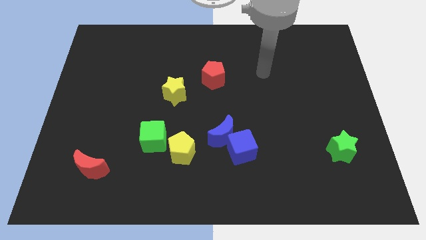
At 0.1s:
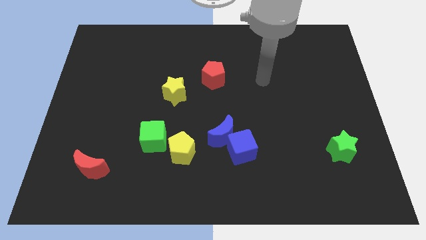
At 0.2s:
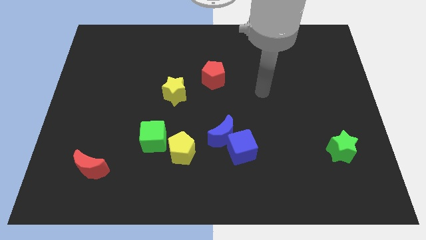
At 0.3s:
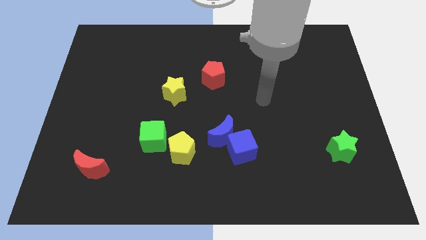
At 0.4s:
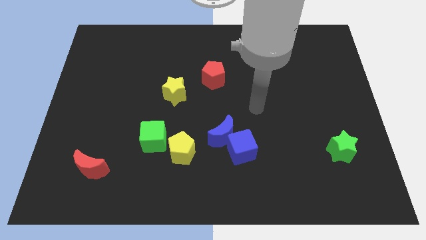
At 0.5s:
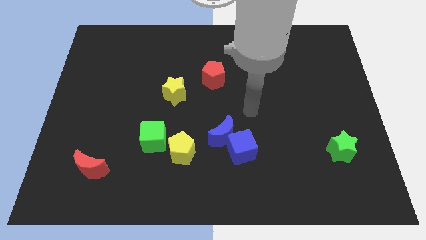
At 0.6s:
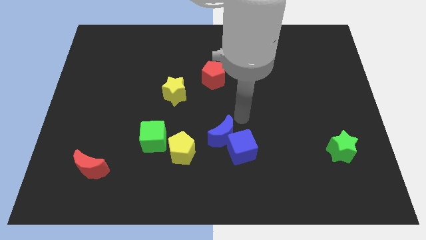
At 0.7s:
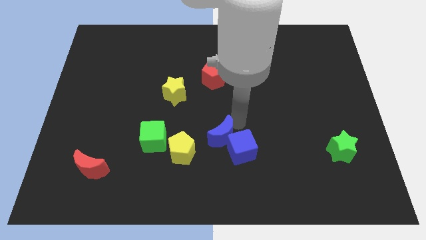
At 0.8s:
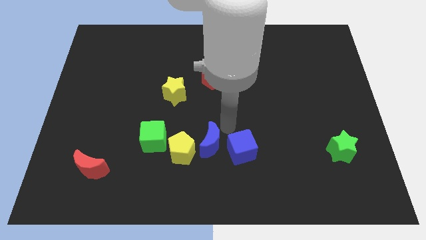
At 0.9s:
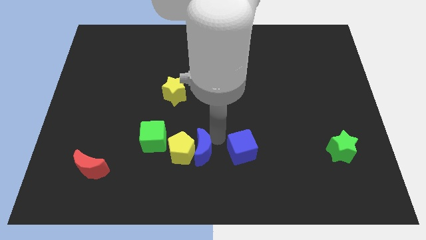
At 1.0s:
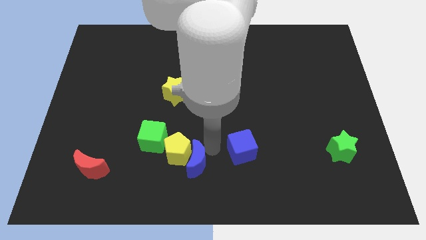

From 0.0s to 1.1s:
pull the blue cube apart from the blue moon

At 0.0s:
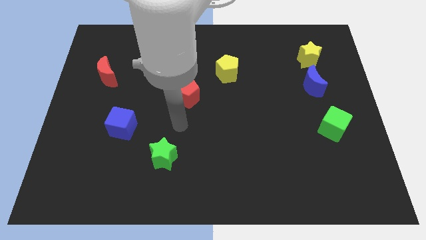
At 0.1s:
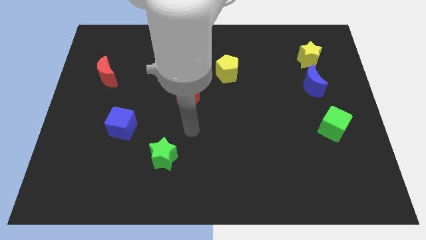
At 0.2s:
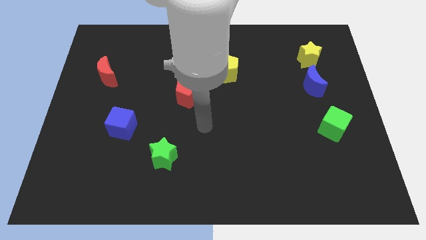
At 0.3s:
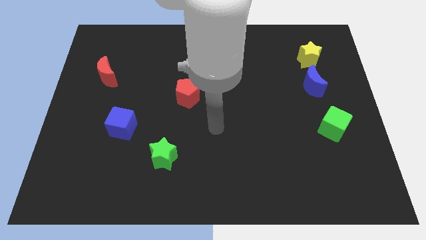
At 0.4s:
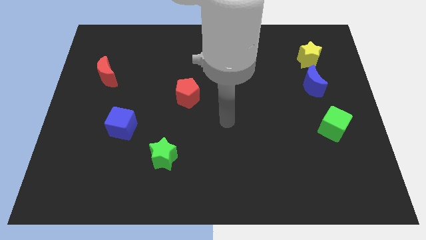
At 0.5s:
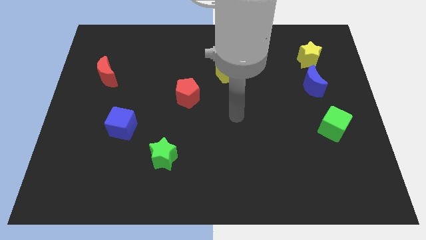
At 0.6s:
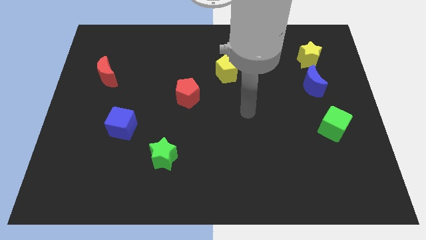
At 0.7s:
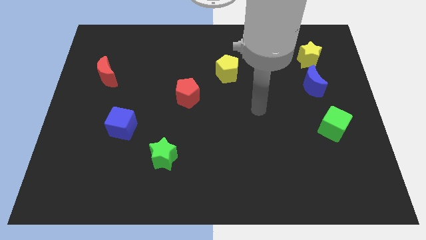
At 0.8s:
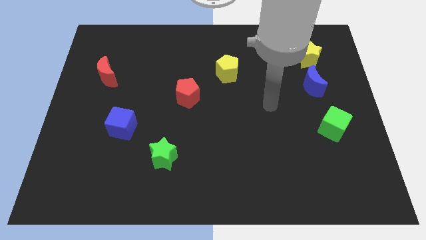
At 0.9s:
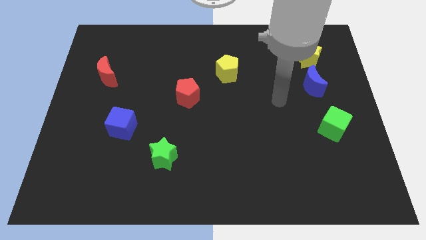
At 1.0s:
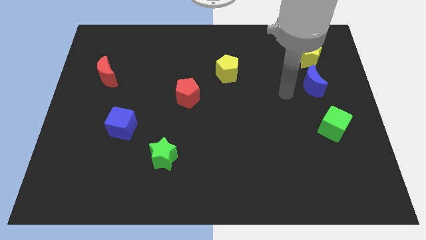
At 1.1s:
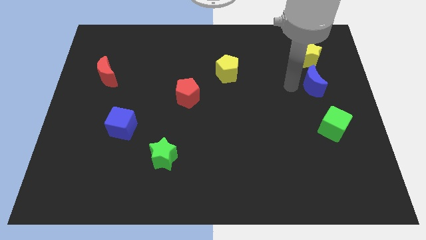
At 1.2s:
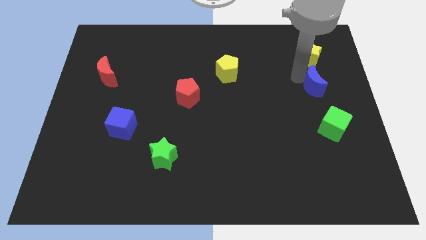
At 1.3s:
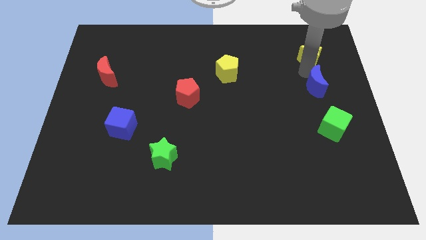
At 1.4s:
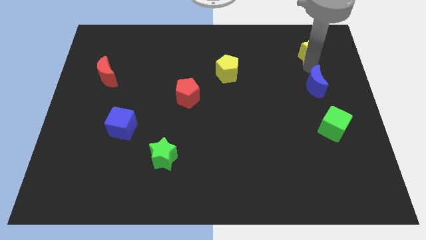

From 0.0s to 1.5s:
separate the blue moon from the yellow star

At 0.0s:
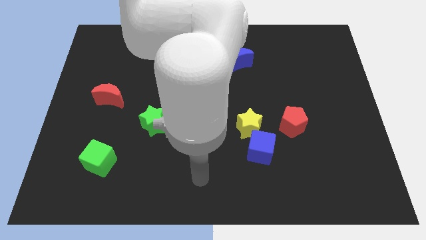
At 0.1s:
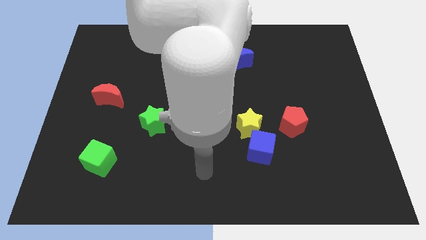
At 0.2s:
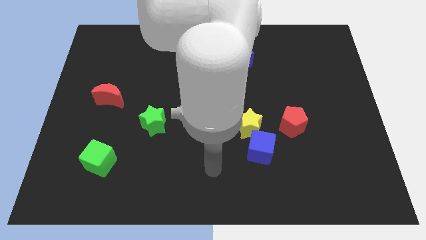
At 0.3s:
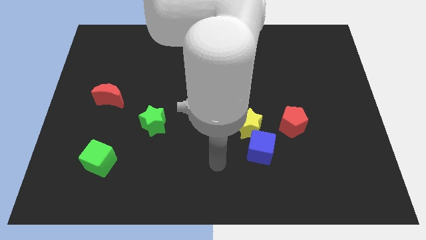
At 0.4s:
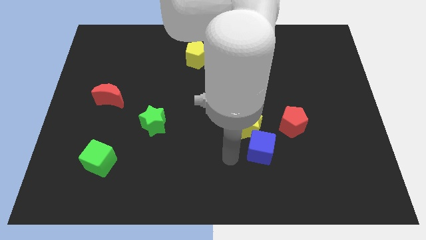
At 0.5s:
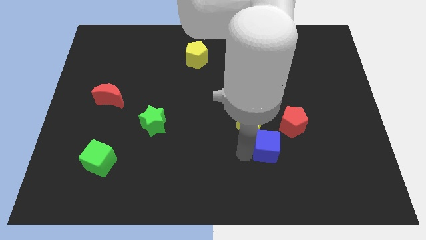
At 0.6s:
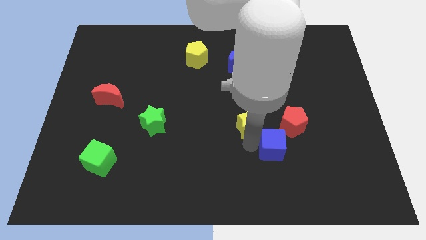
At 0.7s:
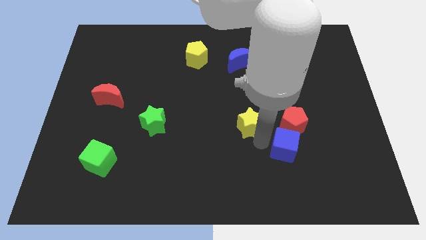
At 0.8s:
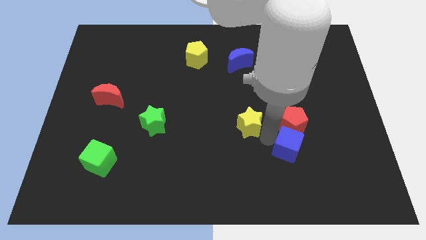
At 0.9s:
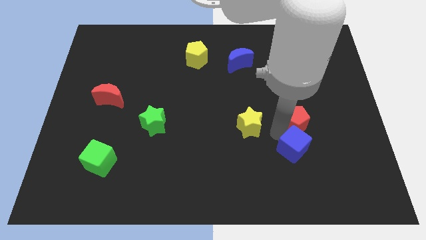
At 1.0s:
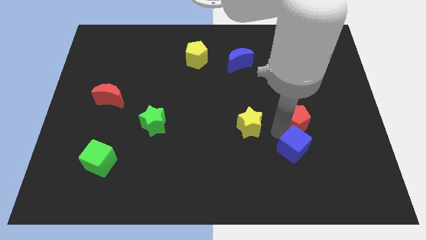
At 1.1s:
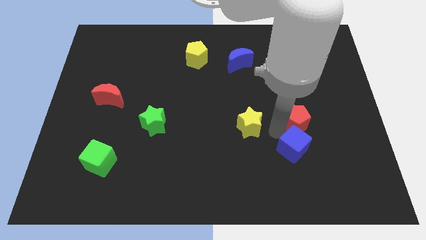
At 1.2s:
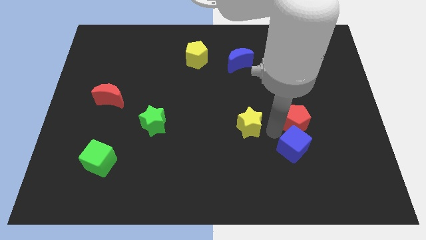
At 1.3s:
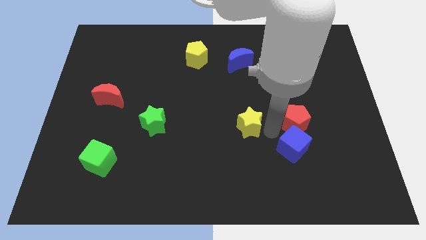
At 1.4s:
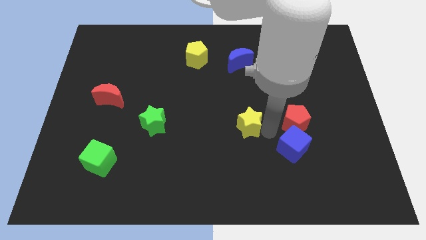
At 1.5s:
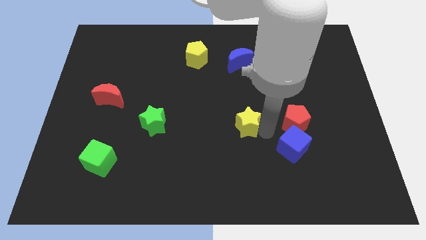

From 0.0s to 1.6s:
pull the yellow star apart from the blue cube and red pentagon

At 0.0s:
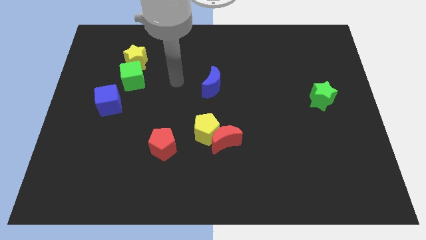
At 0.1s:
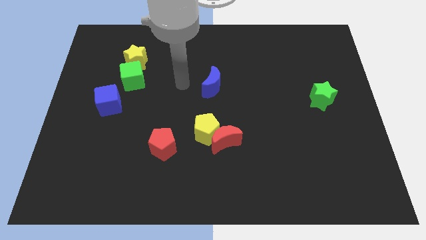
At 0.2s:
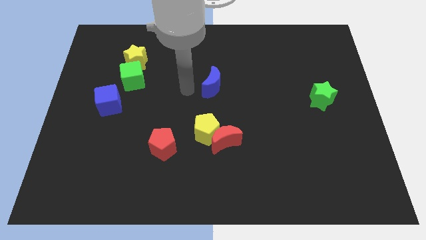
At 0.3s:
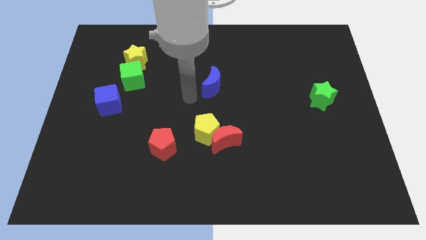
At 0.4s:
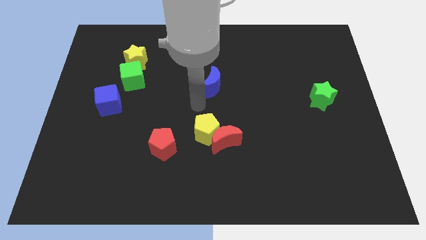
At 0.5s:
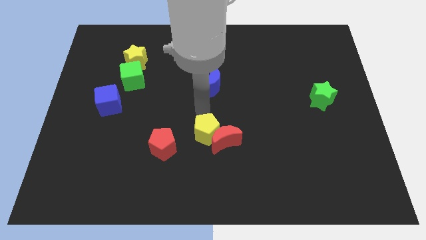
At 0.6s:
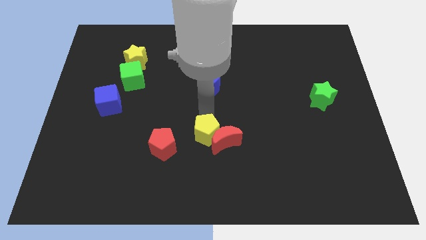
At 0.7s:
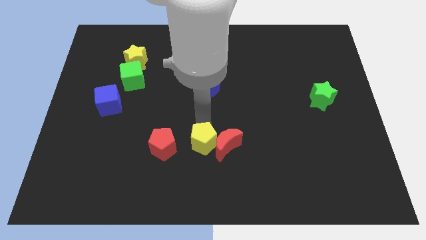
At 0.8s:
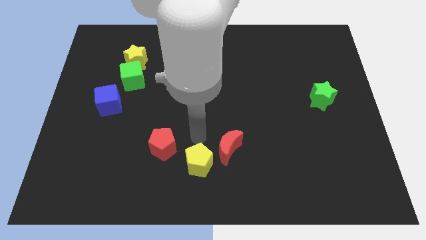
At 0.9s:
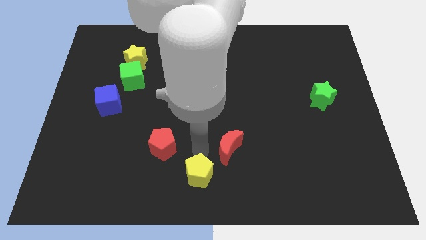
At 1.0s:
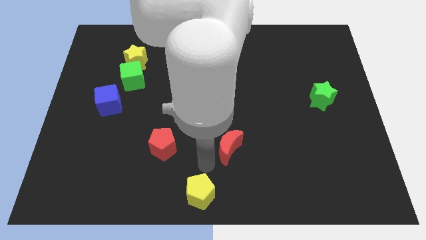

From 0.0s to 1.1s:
separate the red moon from the yellow pentagon

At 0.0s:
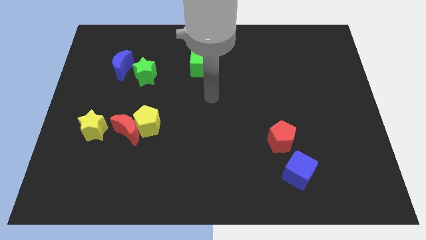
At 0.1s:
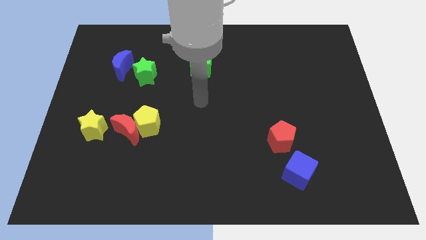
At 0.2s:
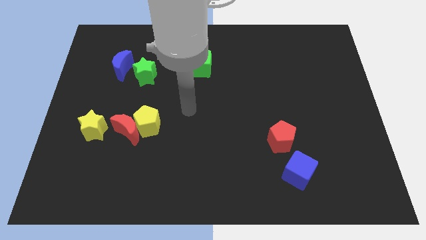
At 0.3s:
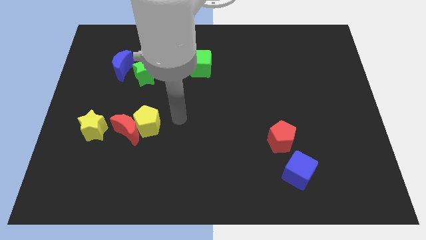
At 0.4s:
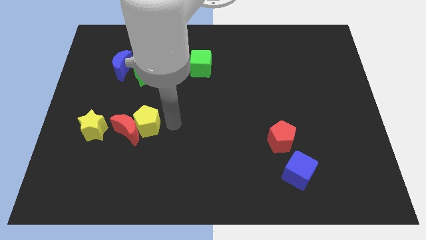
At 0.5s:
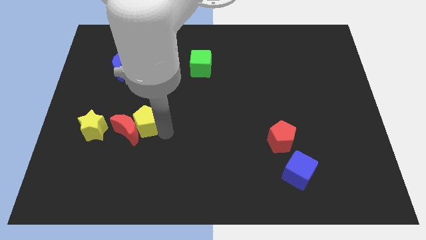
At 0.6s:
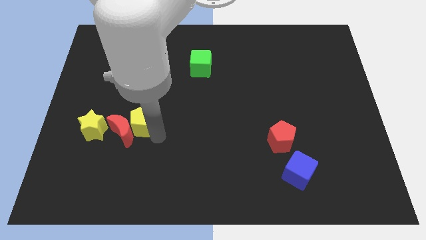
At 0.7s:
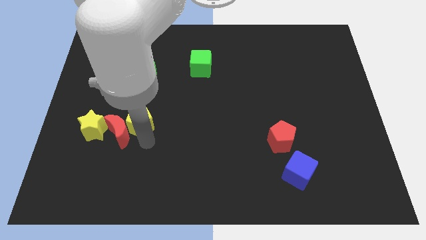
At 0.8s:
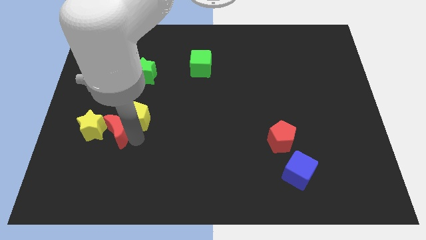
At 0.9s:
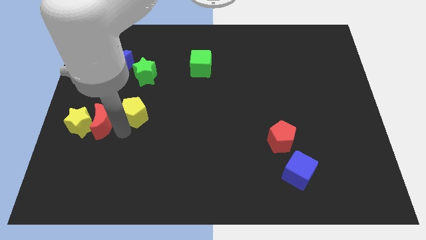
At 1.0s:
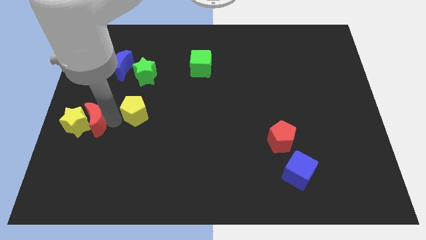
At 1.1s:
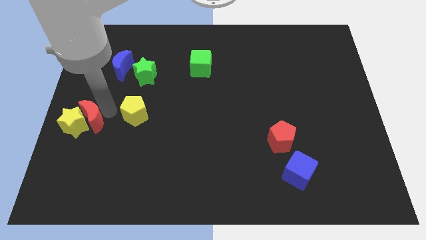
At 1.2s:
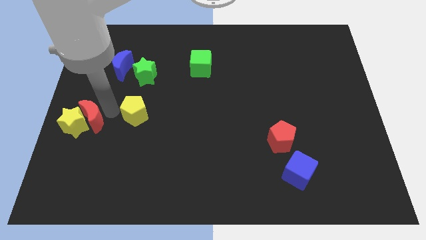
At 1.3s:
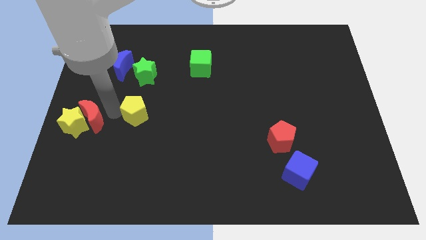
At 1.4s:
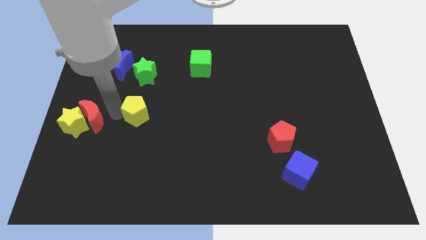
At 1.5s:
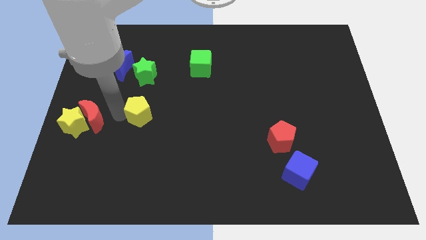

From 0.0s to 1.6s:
pull the yellow pentagon apart from the red moon

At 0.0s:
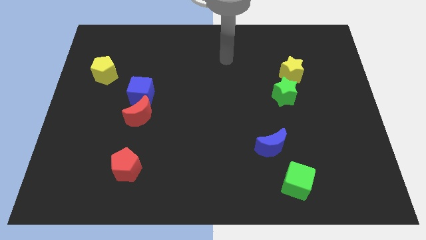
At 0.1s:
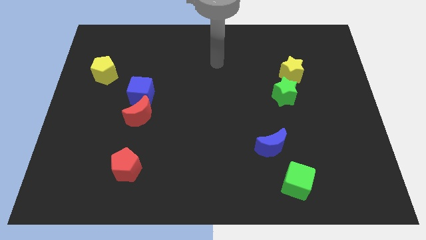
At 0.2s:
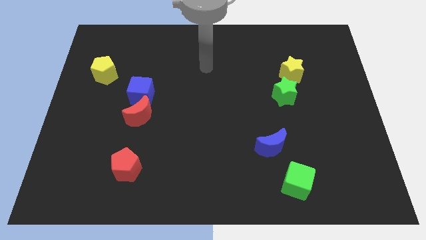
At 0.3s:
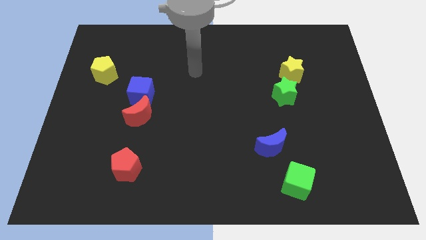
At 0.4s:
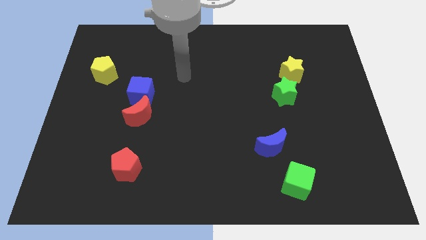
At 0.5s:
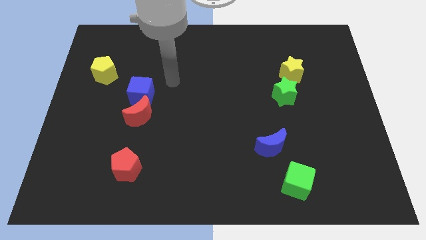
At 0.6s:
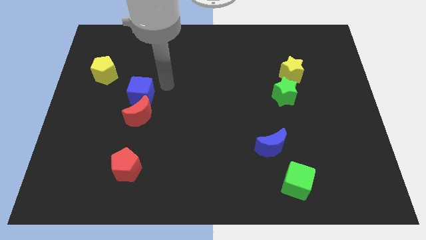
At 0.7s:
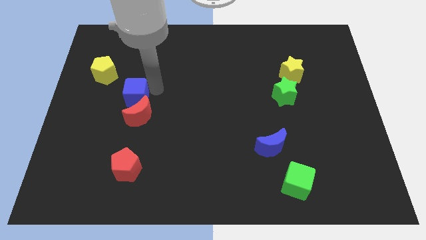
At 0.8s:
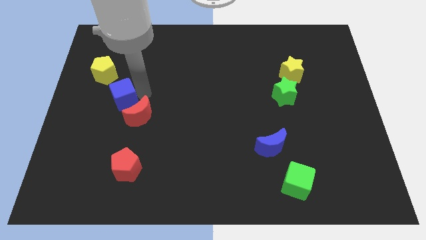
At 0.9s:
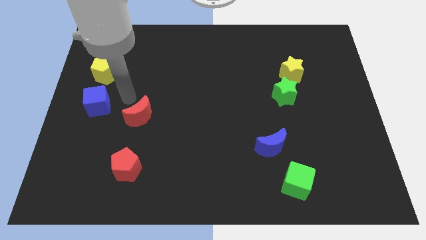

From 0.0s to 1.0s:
separate the red moon from the blue cube

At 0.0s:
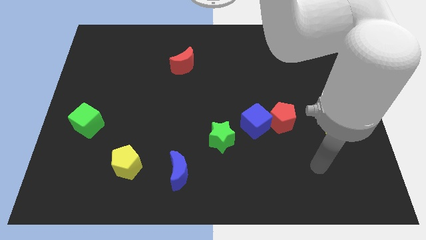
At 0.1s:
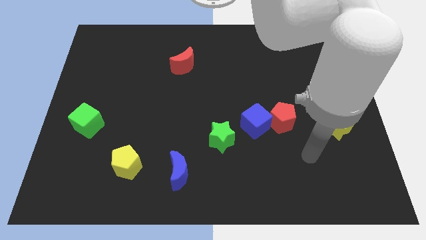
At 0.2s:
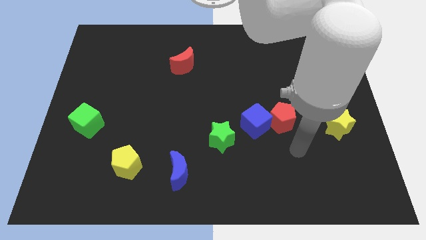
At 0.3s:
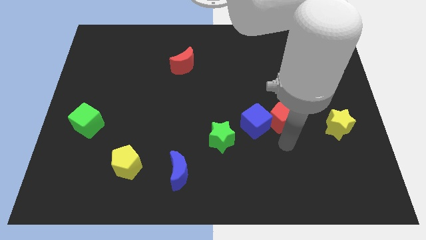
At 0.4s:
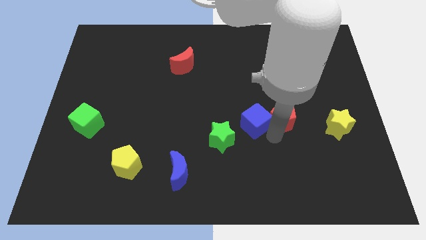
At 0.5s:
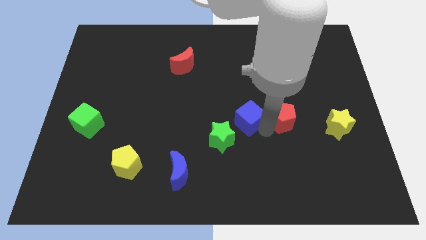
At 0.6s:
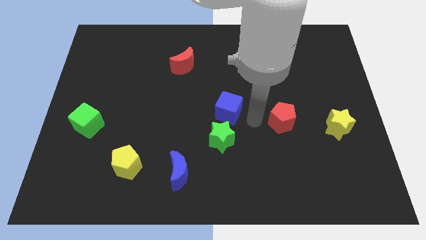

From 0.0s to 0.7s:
separate the red pentagon from the blue cube

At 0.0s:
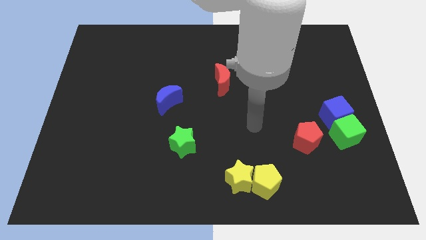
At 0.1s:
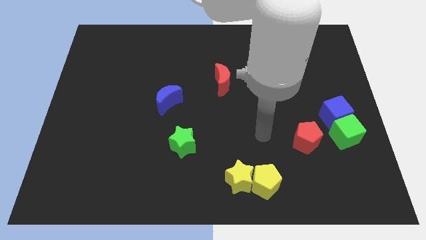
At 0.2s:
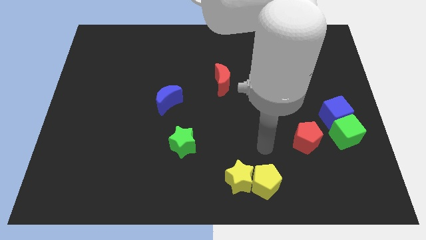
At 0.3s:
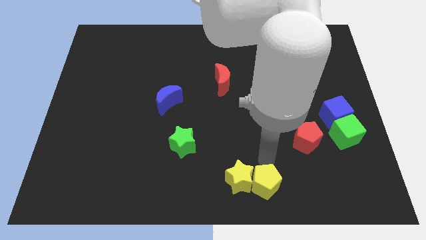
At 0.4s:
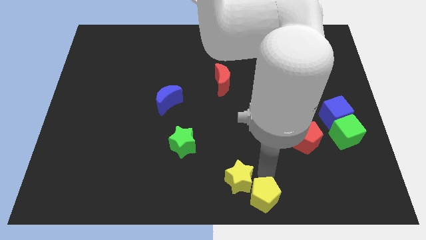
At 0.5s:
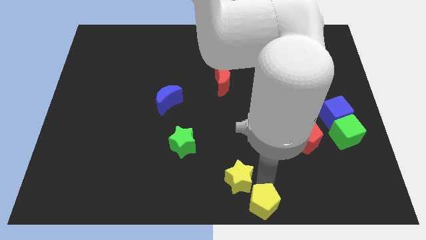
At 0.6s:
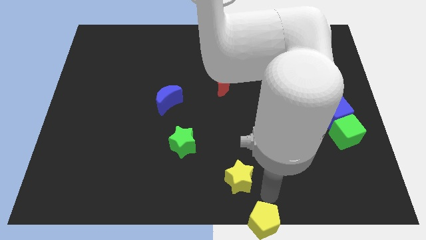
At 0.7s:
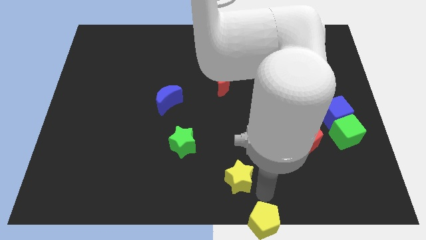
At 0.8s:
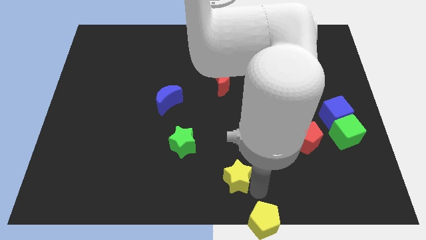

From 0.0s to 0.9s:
pull the yellow star apart from the yellow pentagon

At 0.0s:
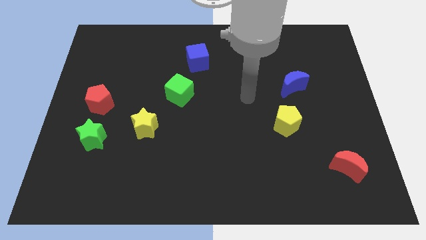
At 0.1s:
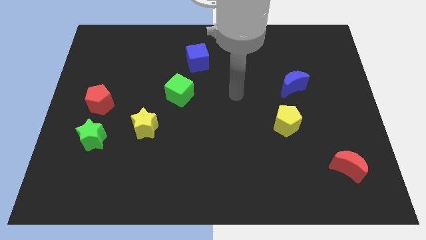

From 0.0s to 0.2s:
separate the red pentagon from the green star
